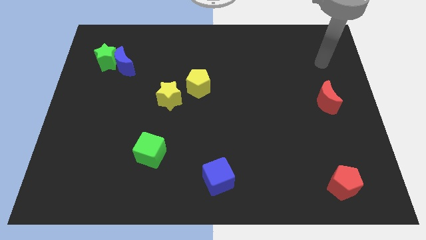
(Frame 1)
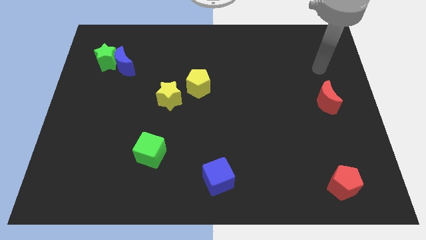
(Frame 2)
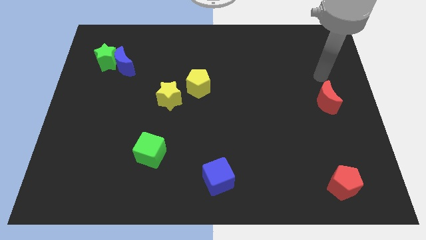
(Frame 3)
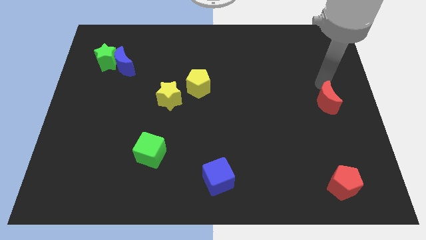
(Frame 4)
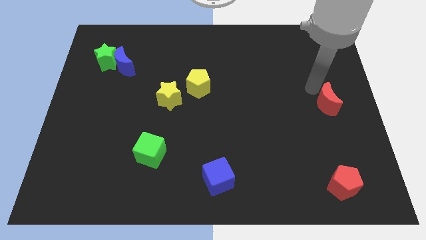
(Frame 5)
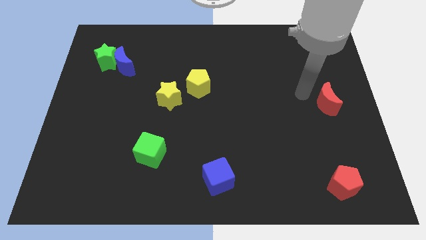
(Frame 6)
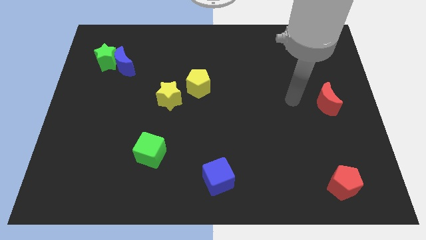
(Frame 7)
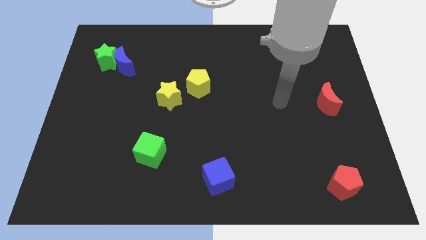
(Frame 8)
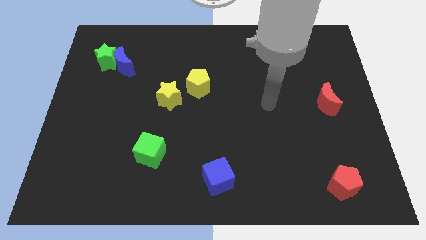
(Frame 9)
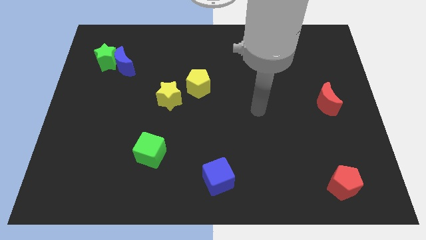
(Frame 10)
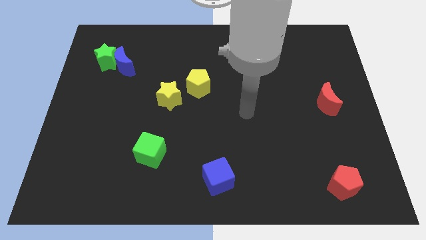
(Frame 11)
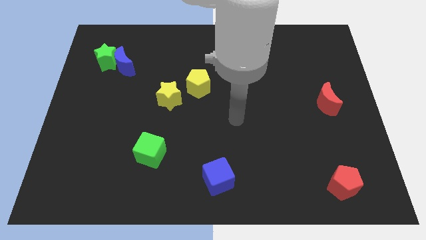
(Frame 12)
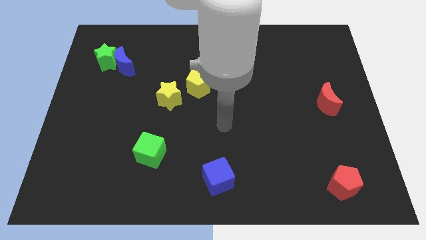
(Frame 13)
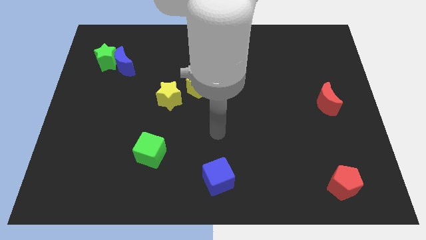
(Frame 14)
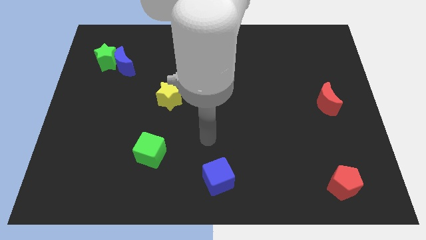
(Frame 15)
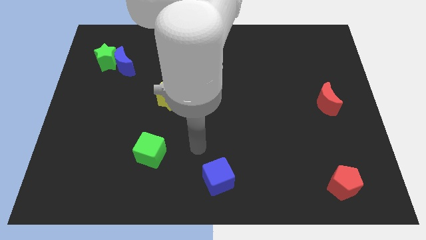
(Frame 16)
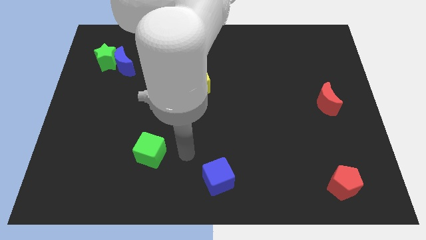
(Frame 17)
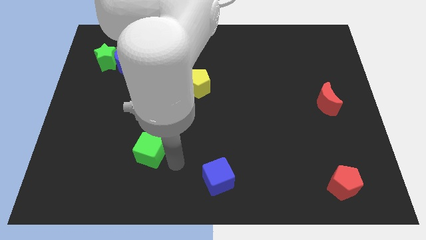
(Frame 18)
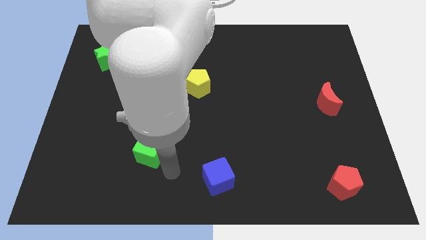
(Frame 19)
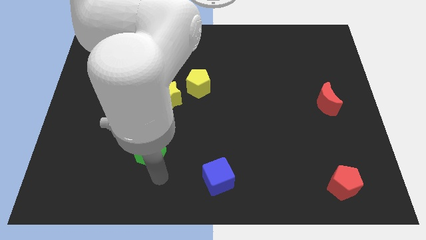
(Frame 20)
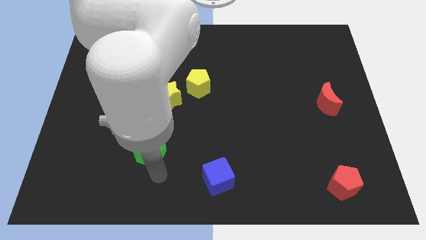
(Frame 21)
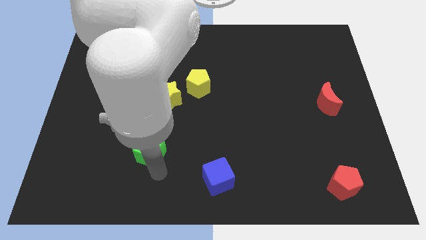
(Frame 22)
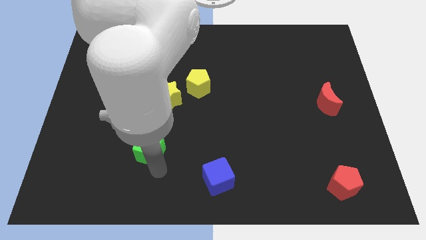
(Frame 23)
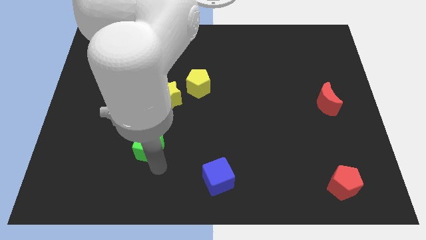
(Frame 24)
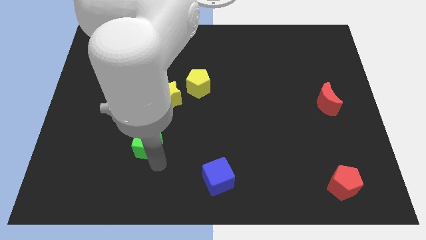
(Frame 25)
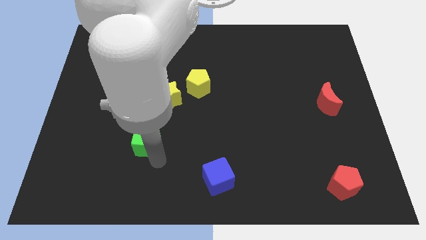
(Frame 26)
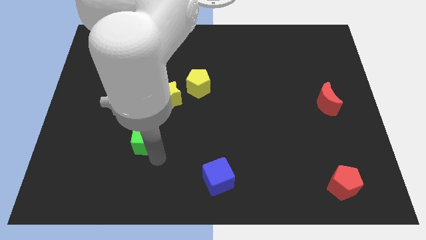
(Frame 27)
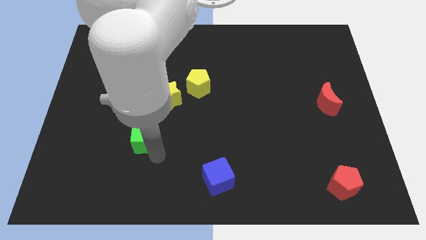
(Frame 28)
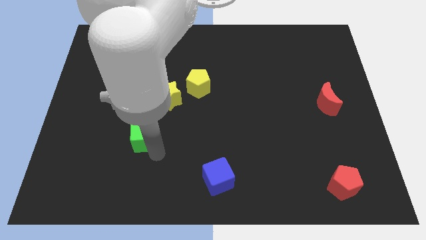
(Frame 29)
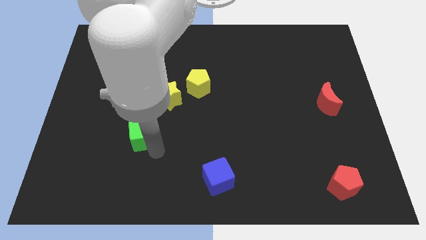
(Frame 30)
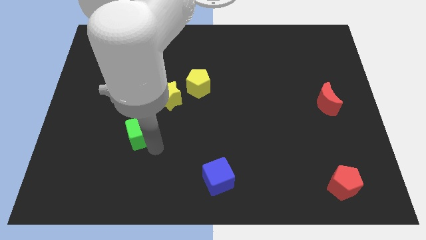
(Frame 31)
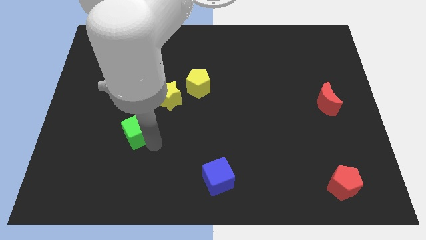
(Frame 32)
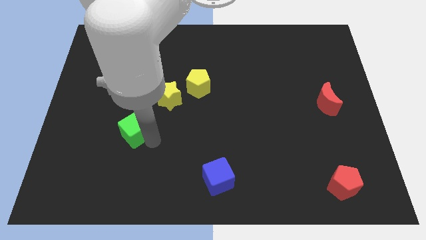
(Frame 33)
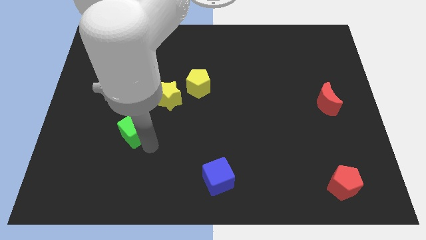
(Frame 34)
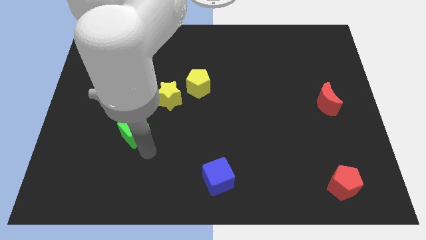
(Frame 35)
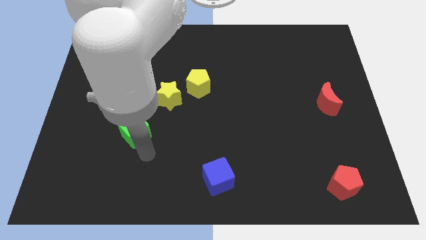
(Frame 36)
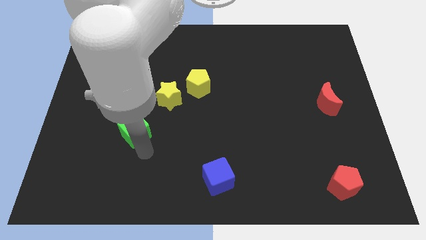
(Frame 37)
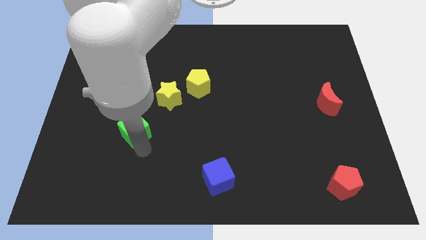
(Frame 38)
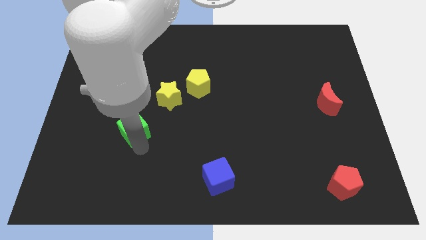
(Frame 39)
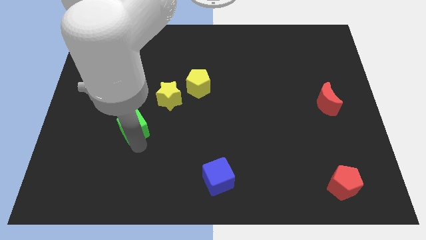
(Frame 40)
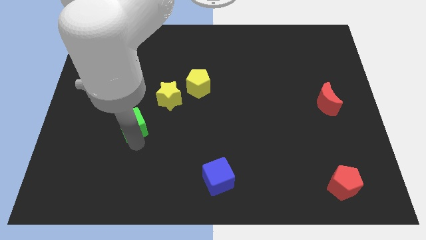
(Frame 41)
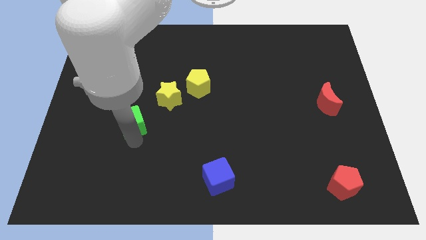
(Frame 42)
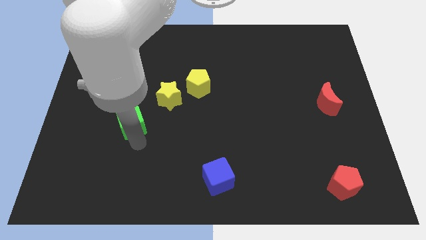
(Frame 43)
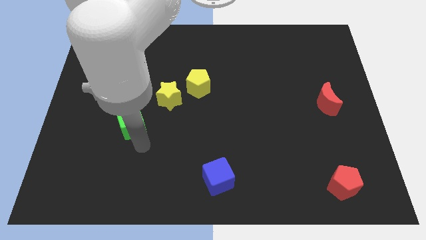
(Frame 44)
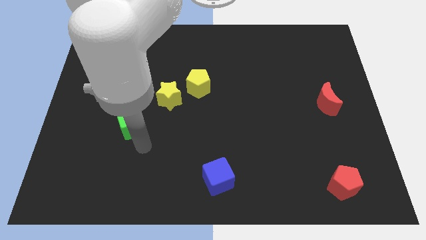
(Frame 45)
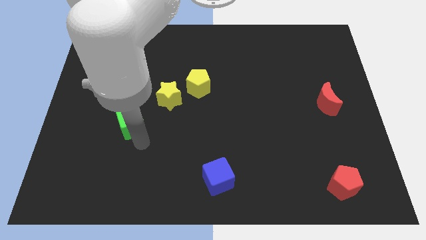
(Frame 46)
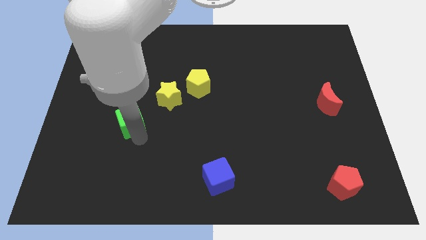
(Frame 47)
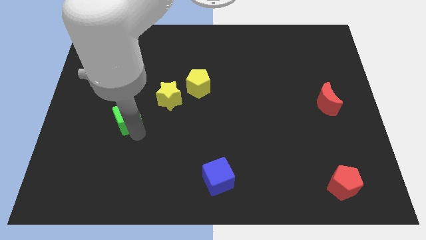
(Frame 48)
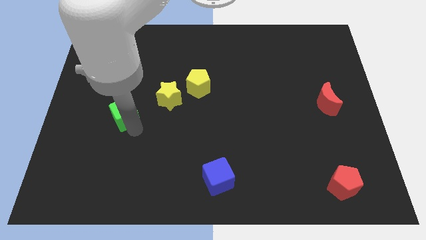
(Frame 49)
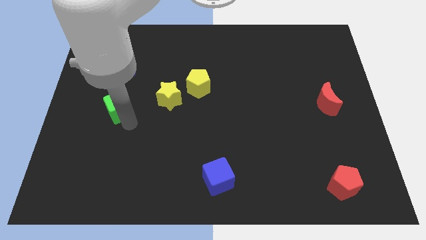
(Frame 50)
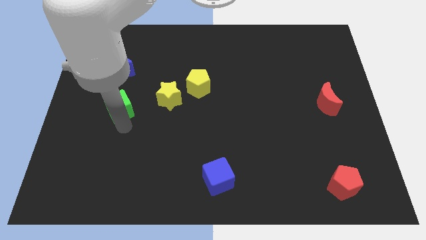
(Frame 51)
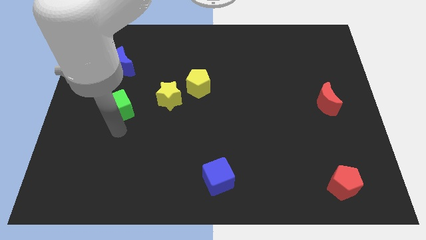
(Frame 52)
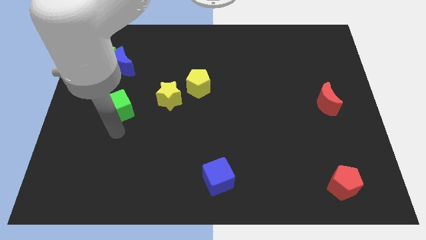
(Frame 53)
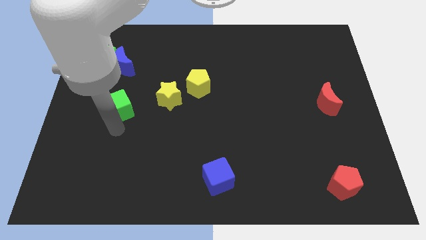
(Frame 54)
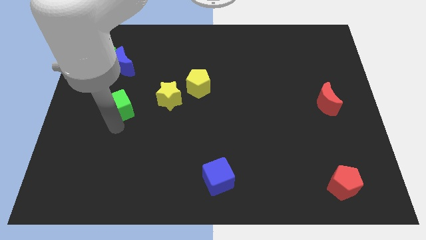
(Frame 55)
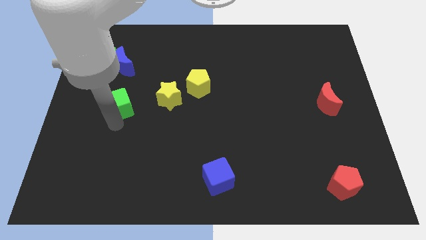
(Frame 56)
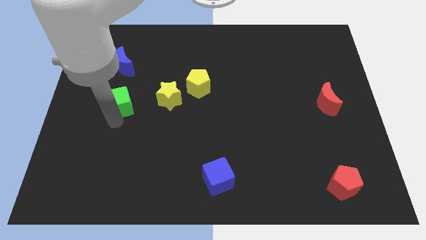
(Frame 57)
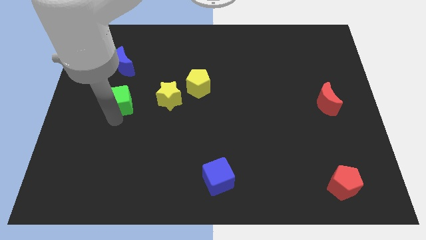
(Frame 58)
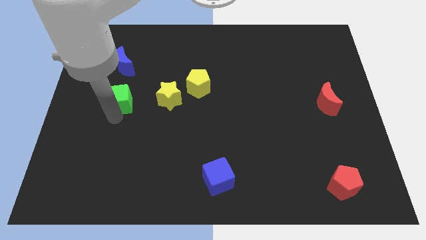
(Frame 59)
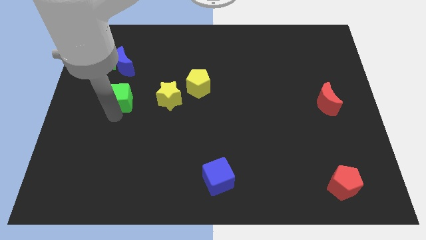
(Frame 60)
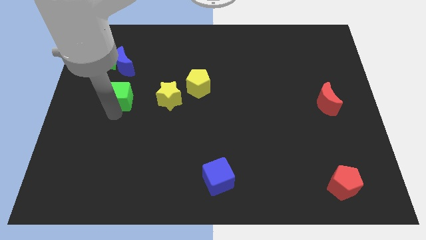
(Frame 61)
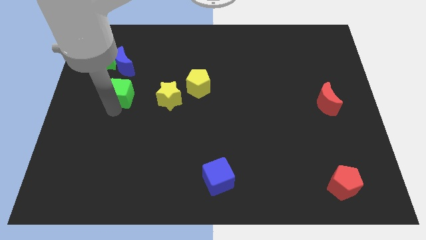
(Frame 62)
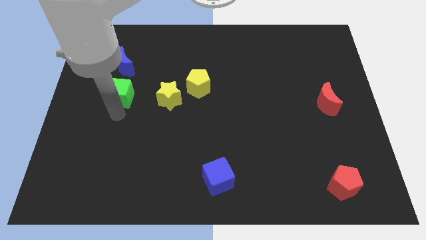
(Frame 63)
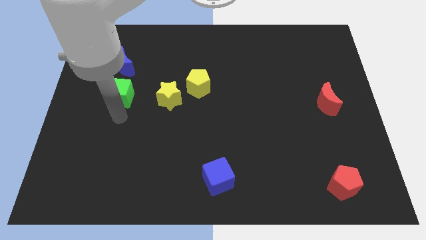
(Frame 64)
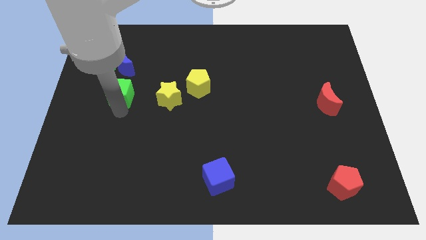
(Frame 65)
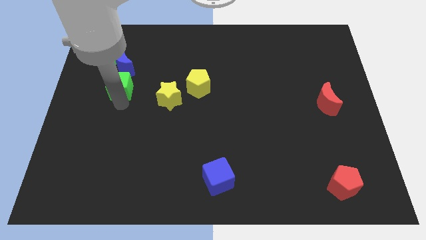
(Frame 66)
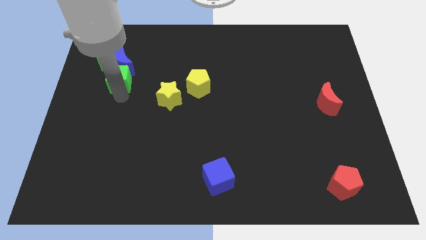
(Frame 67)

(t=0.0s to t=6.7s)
move the green cube close to the blue moon

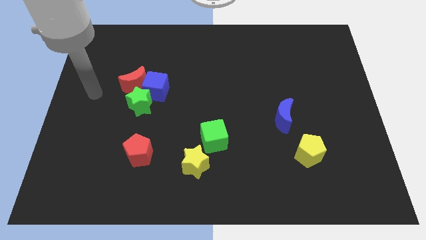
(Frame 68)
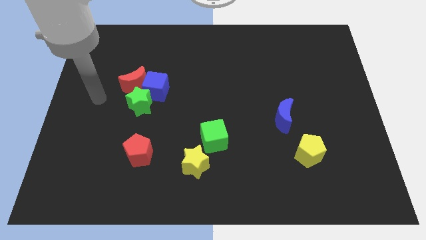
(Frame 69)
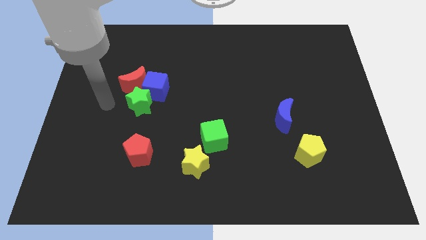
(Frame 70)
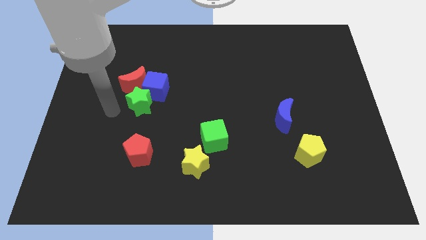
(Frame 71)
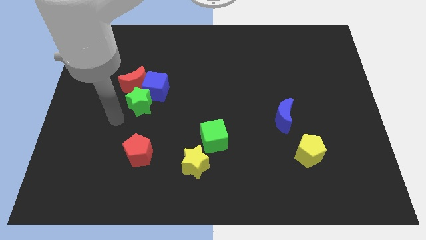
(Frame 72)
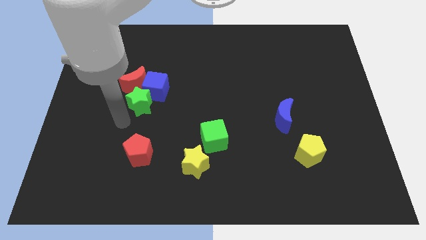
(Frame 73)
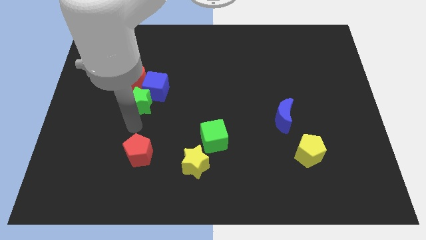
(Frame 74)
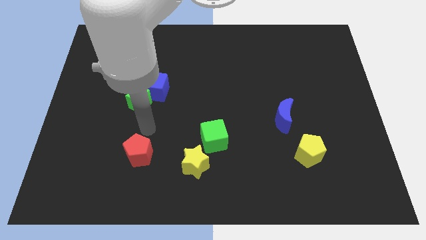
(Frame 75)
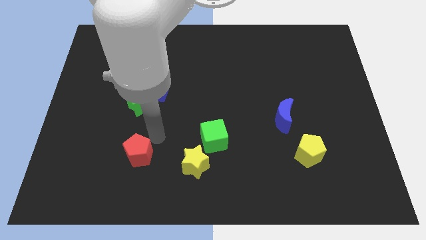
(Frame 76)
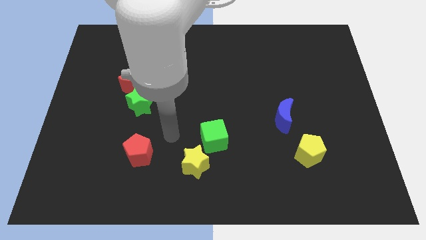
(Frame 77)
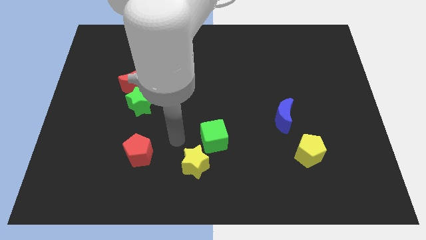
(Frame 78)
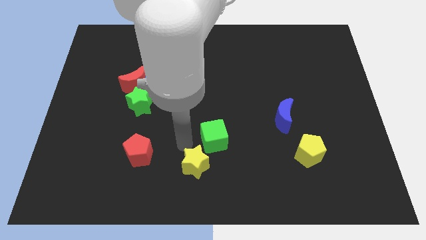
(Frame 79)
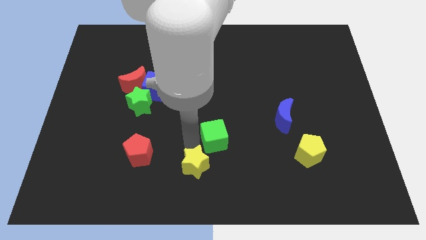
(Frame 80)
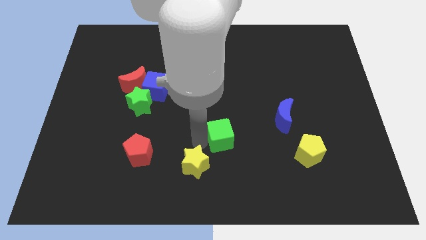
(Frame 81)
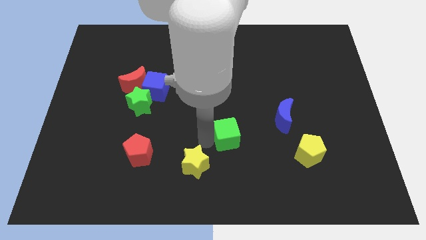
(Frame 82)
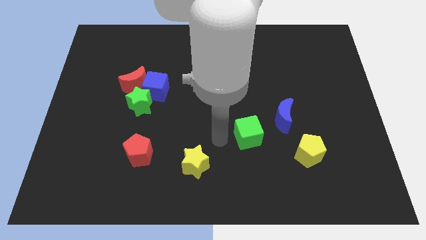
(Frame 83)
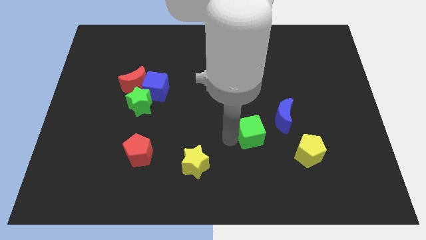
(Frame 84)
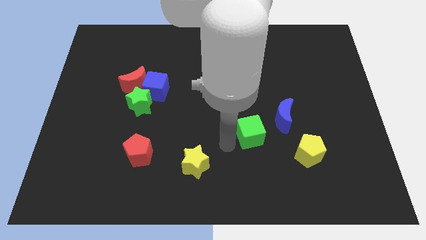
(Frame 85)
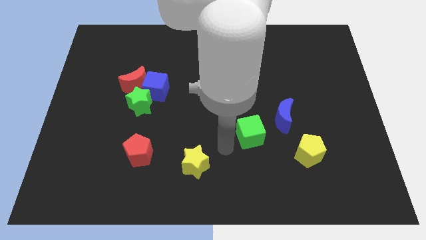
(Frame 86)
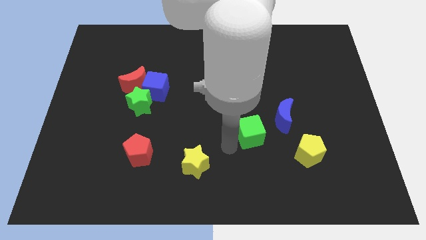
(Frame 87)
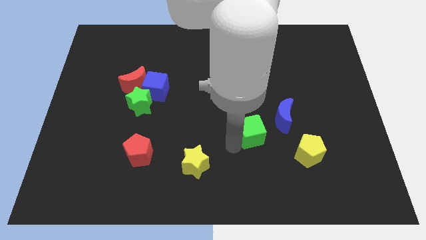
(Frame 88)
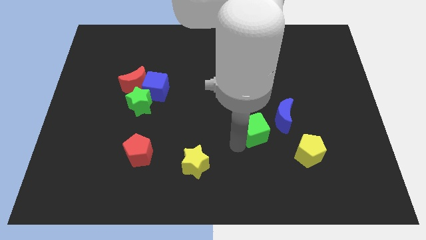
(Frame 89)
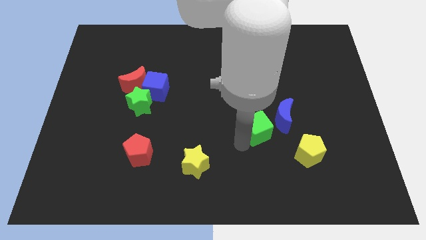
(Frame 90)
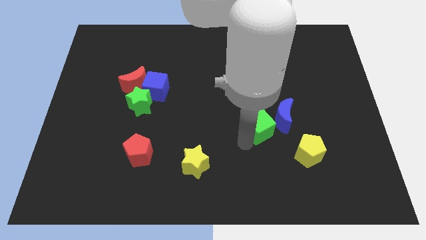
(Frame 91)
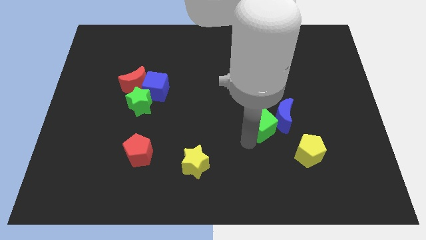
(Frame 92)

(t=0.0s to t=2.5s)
put the green cube close to the blue moon
